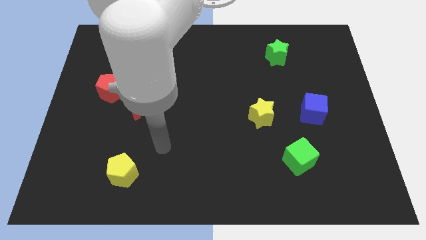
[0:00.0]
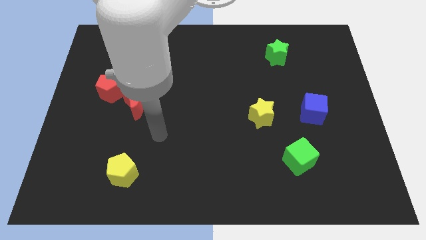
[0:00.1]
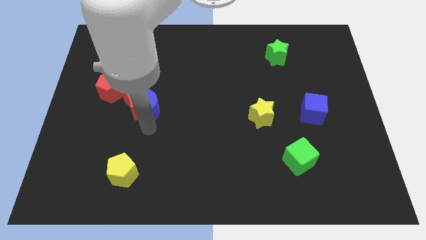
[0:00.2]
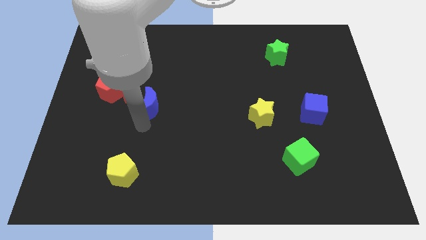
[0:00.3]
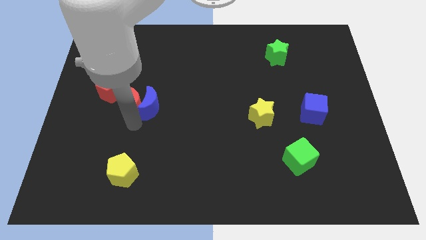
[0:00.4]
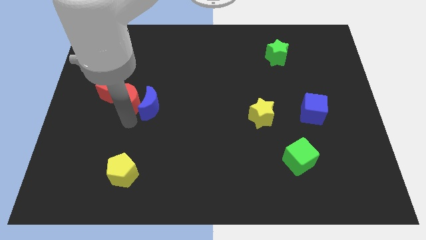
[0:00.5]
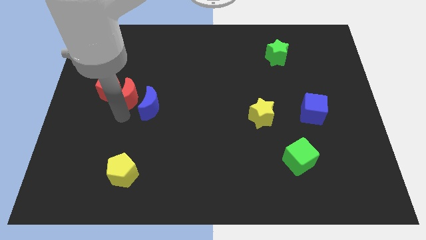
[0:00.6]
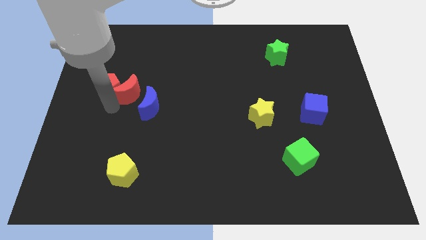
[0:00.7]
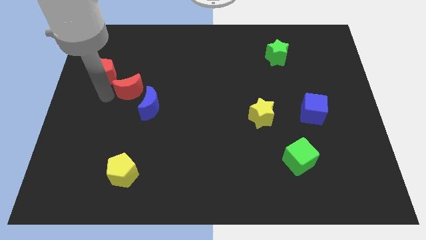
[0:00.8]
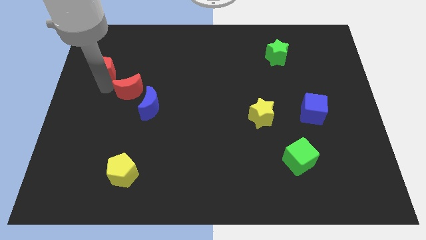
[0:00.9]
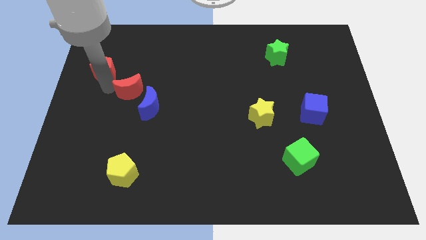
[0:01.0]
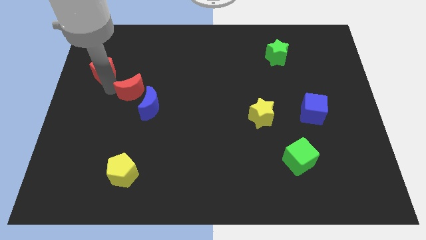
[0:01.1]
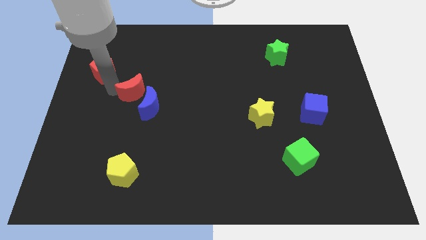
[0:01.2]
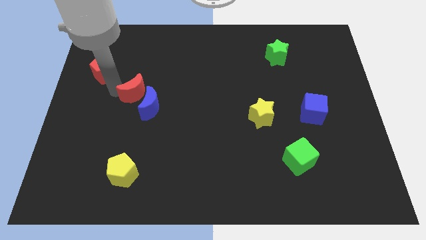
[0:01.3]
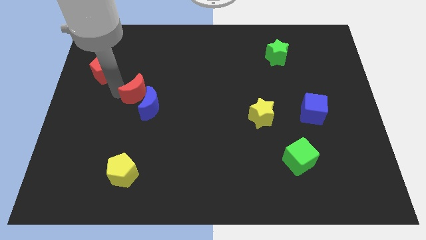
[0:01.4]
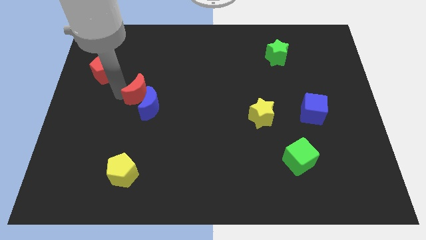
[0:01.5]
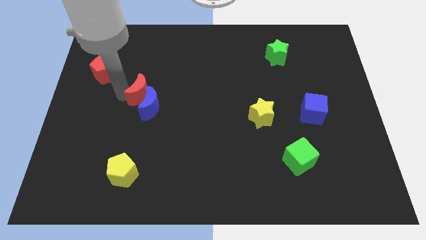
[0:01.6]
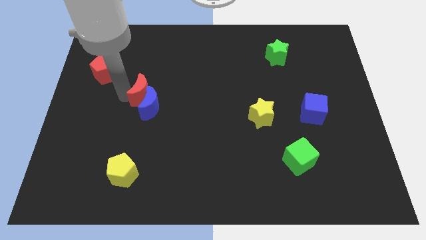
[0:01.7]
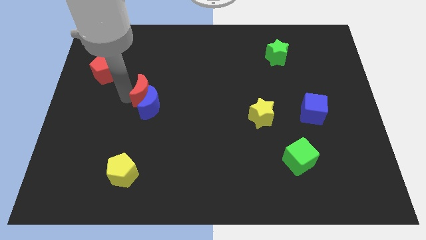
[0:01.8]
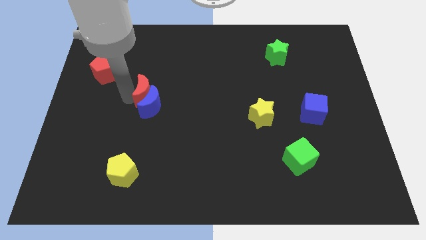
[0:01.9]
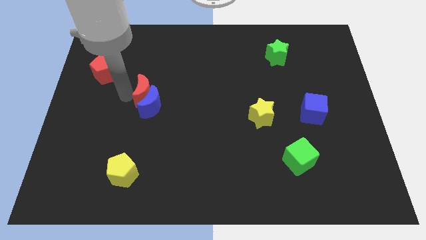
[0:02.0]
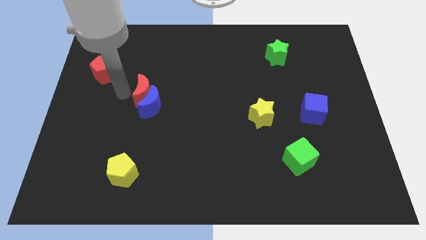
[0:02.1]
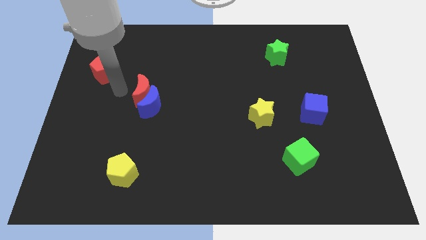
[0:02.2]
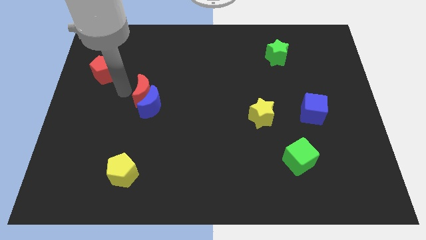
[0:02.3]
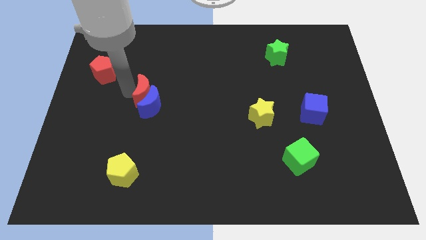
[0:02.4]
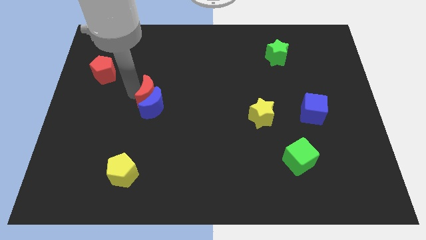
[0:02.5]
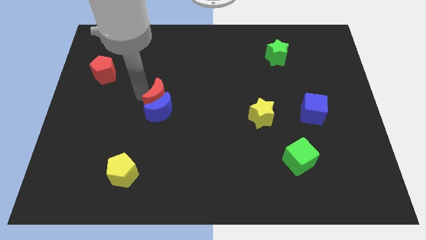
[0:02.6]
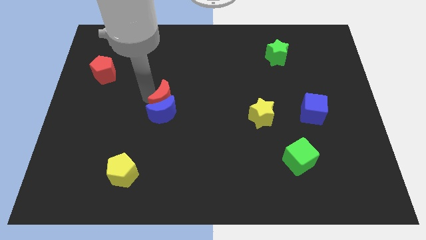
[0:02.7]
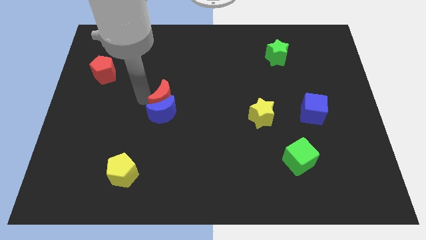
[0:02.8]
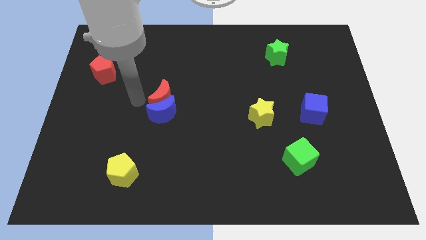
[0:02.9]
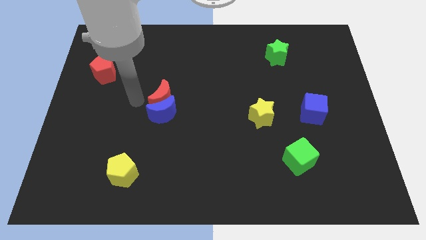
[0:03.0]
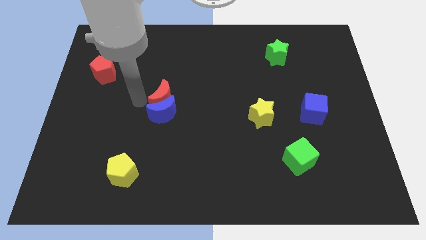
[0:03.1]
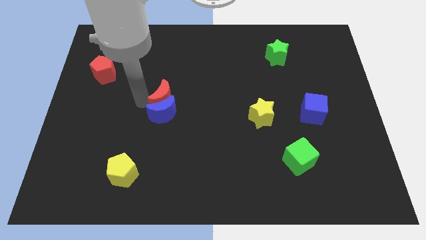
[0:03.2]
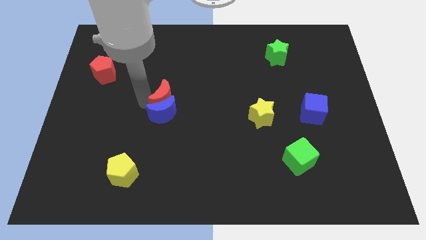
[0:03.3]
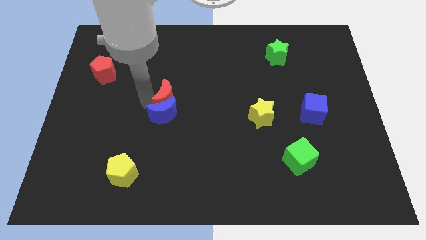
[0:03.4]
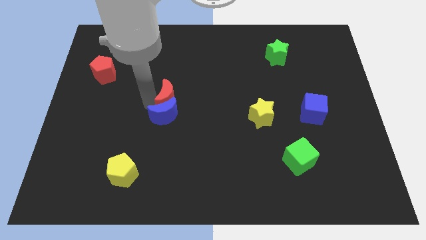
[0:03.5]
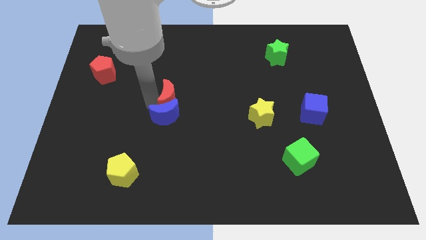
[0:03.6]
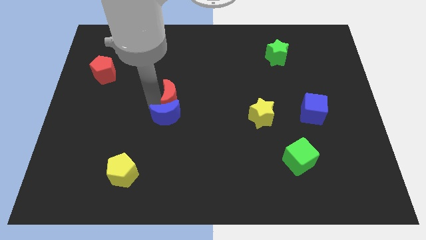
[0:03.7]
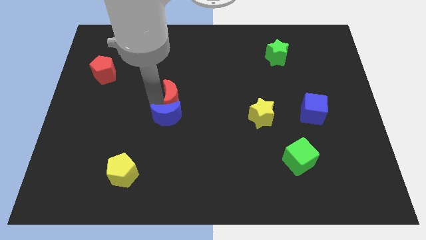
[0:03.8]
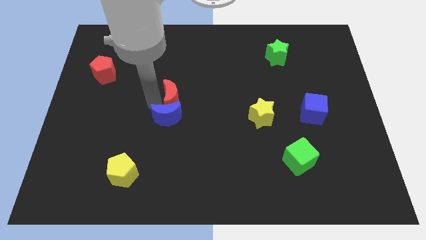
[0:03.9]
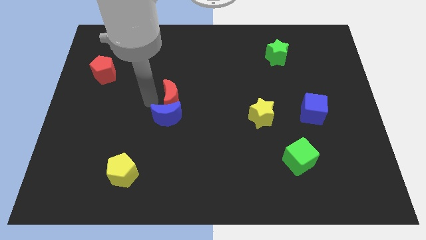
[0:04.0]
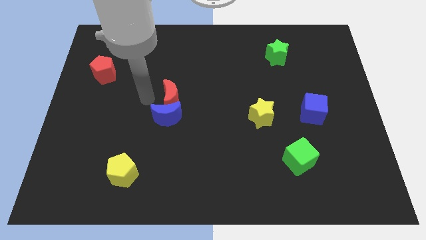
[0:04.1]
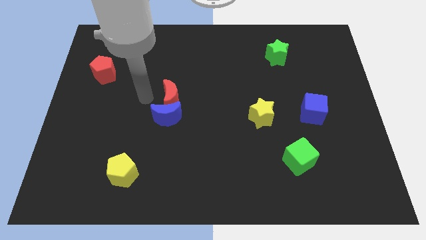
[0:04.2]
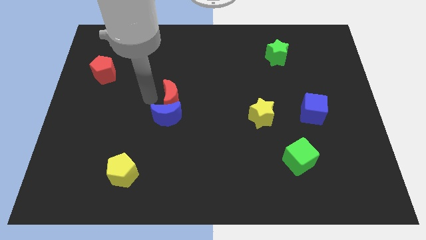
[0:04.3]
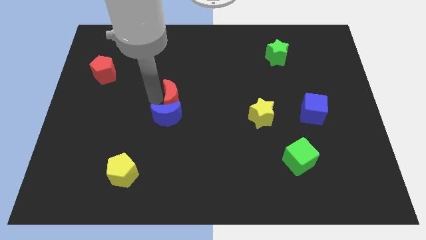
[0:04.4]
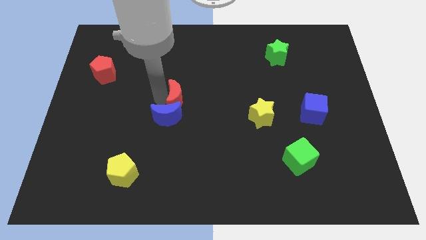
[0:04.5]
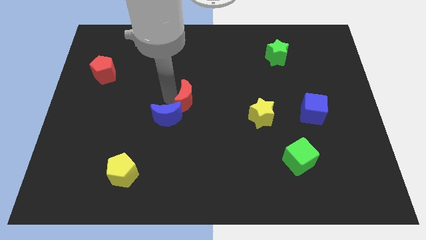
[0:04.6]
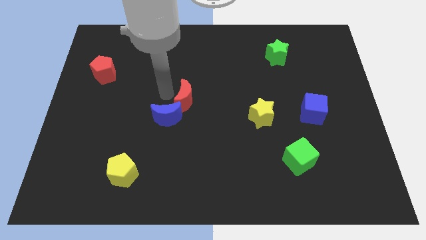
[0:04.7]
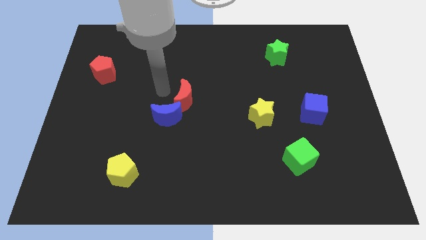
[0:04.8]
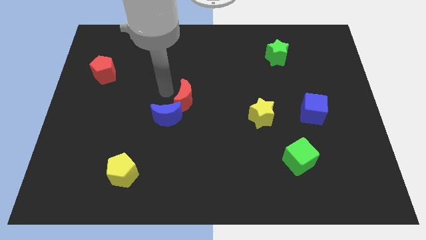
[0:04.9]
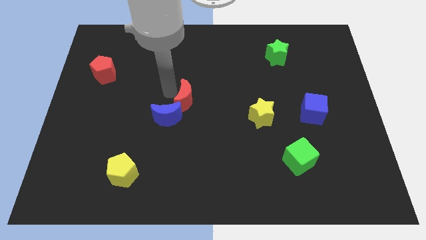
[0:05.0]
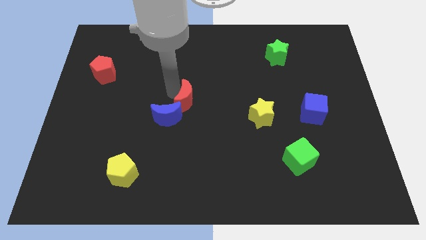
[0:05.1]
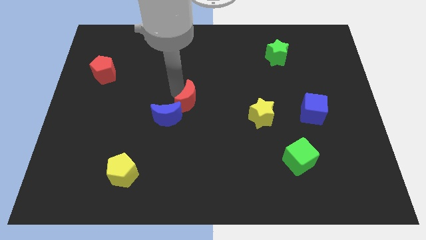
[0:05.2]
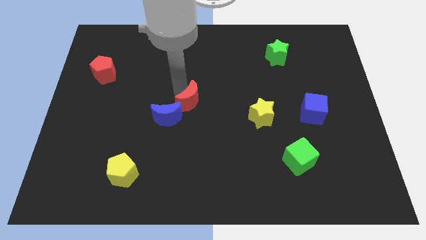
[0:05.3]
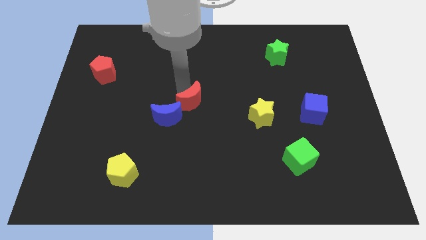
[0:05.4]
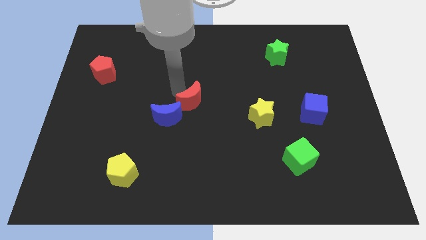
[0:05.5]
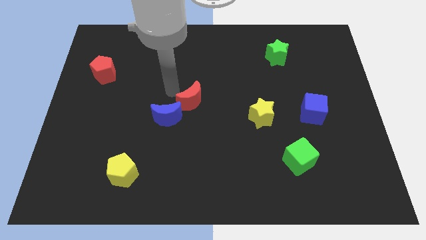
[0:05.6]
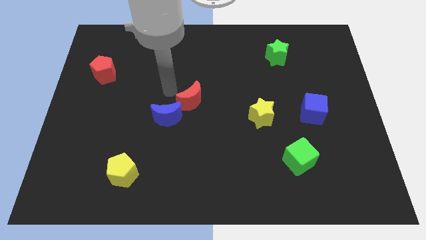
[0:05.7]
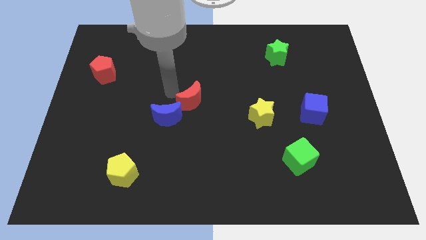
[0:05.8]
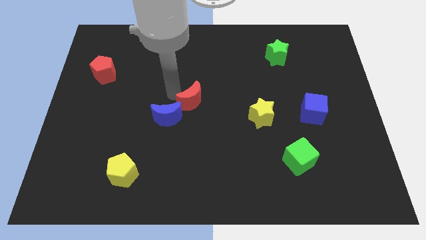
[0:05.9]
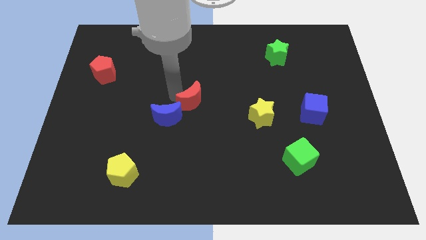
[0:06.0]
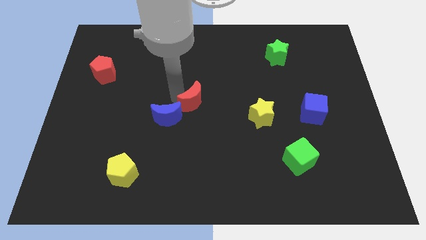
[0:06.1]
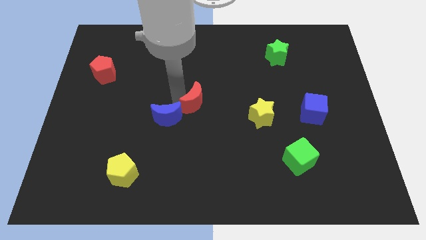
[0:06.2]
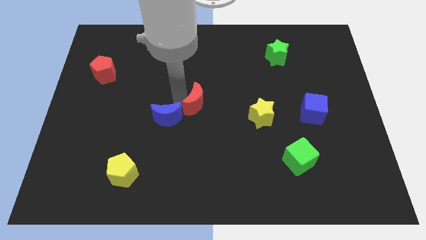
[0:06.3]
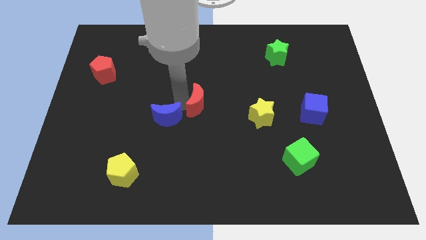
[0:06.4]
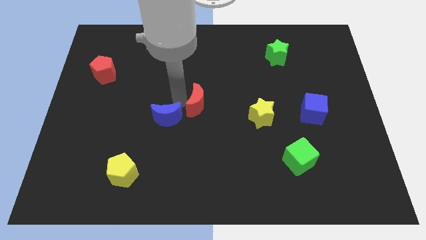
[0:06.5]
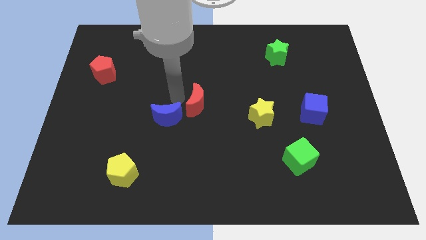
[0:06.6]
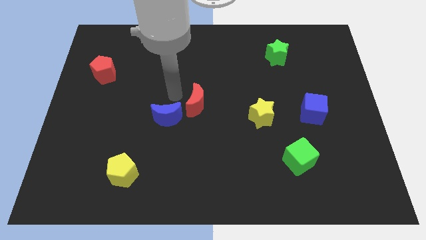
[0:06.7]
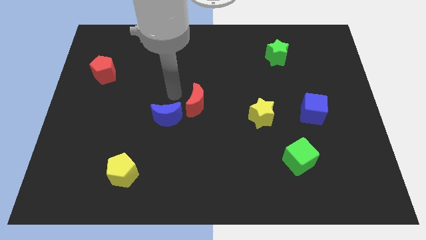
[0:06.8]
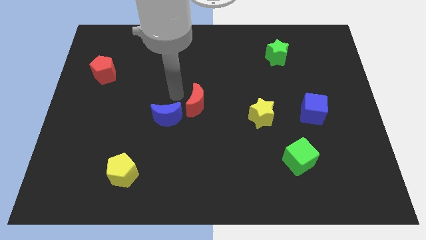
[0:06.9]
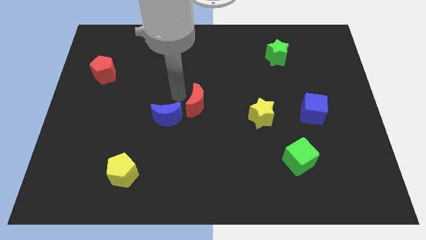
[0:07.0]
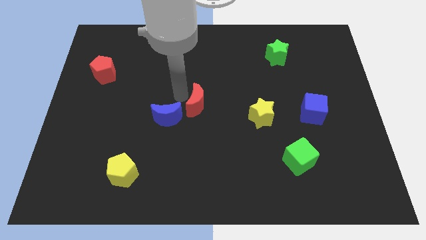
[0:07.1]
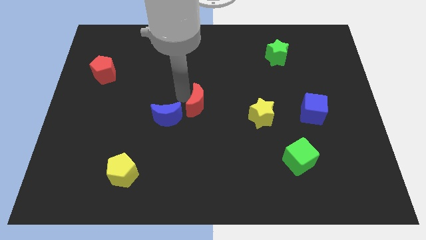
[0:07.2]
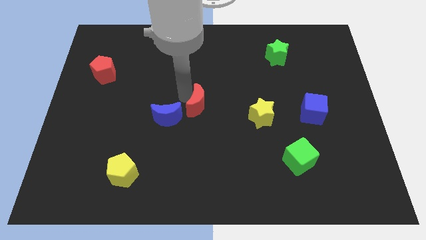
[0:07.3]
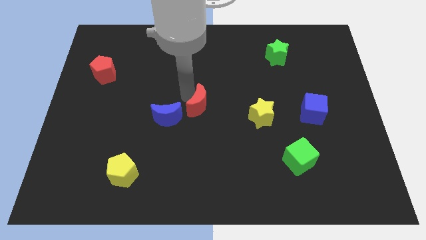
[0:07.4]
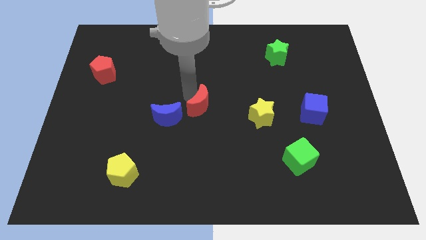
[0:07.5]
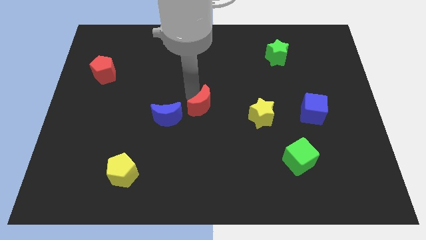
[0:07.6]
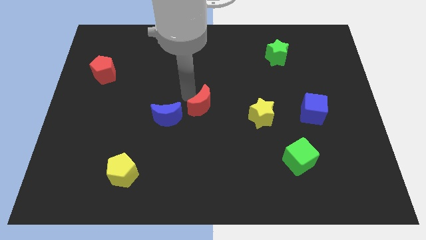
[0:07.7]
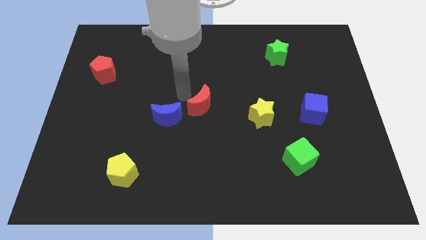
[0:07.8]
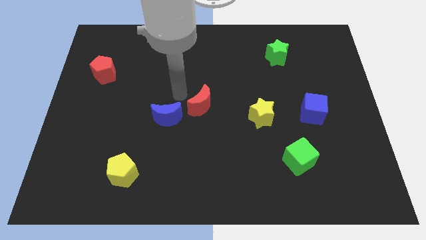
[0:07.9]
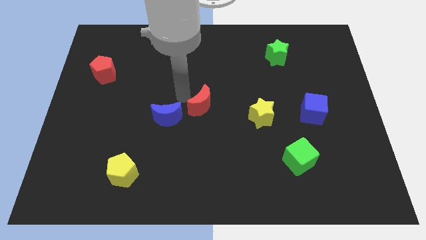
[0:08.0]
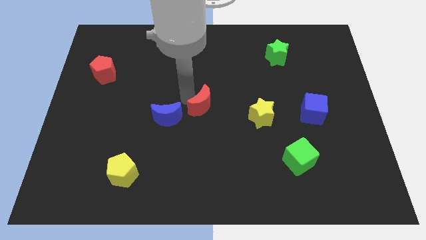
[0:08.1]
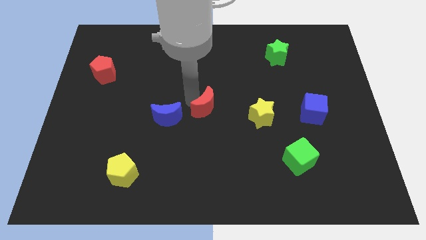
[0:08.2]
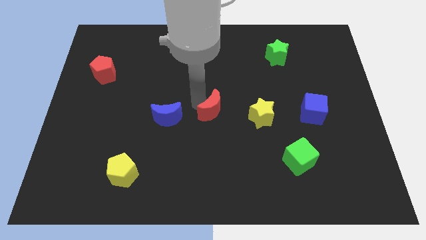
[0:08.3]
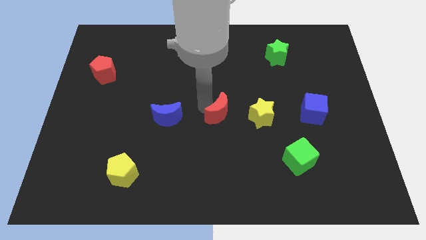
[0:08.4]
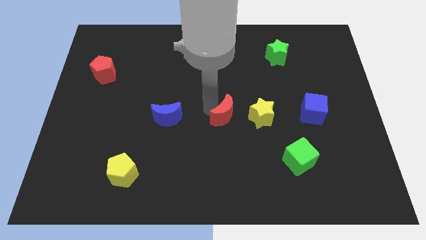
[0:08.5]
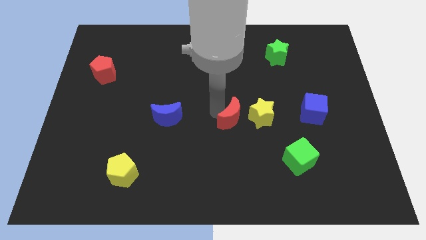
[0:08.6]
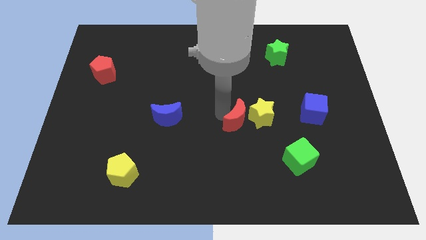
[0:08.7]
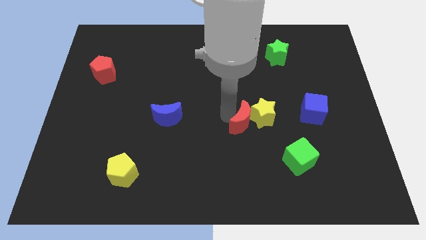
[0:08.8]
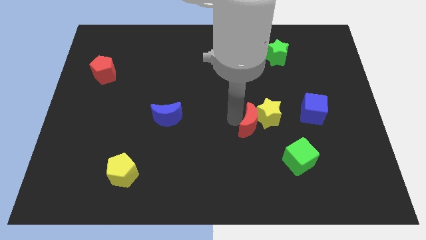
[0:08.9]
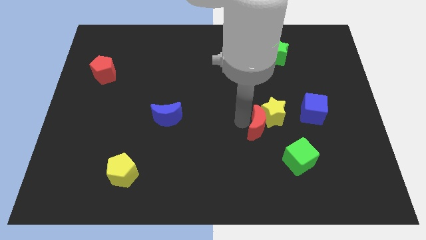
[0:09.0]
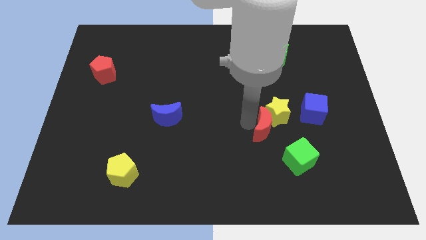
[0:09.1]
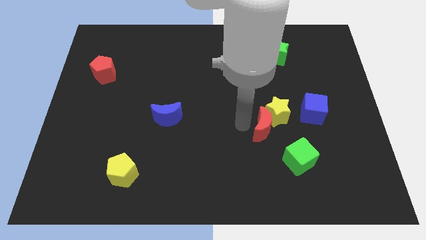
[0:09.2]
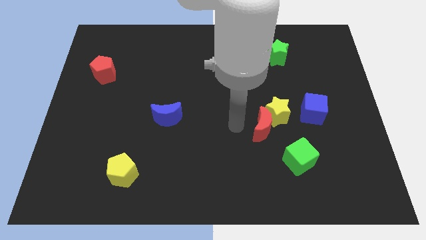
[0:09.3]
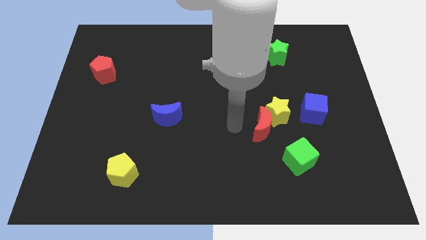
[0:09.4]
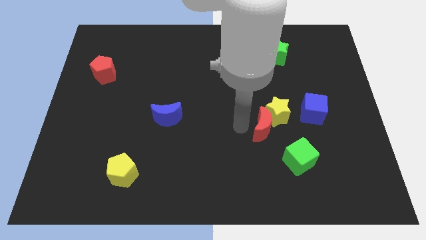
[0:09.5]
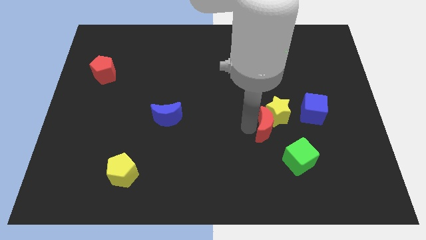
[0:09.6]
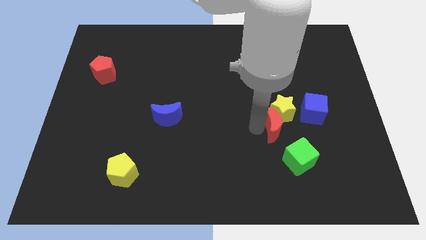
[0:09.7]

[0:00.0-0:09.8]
push the red moon to the bottom left side of the blue cube
